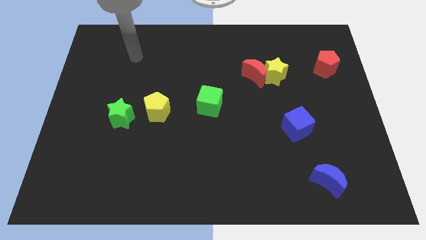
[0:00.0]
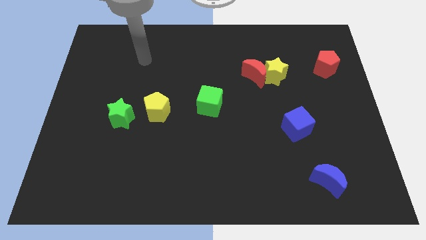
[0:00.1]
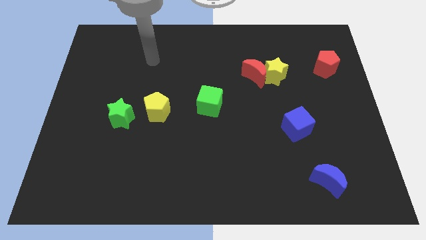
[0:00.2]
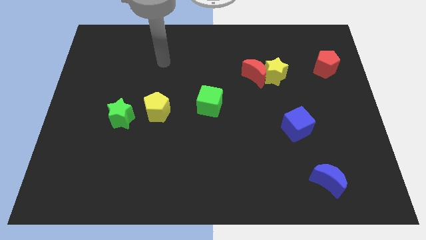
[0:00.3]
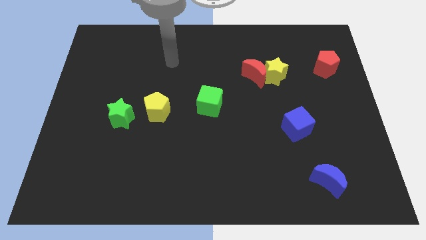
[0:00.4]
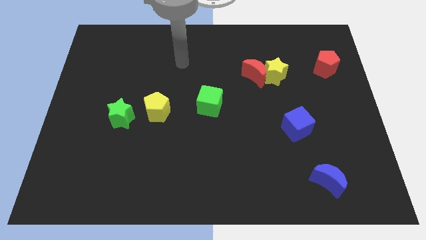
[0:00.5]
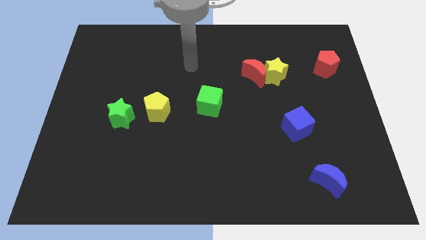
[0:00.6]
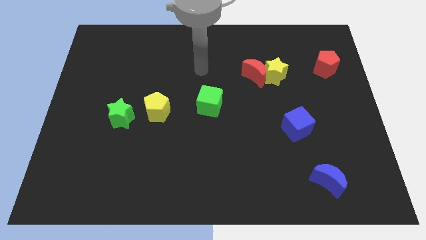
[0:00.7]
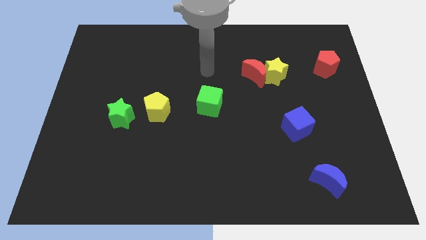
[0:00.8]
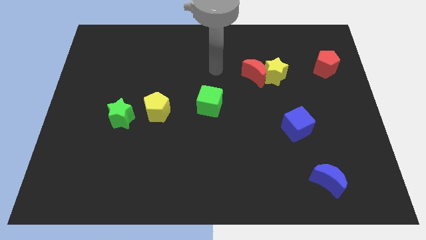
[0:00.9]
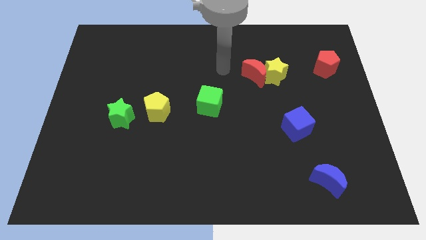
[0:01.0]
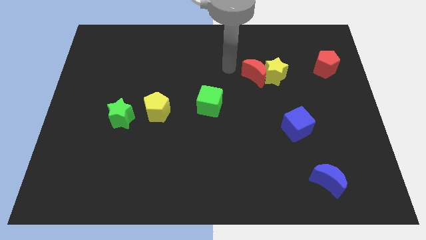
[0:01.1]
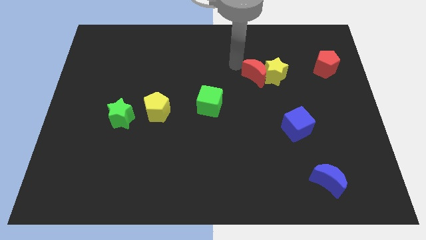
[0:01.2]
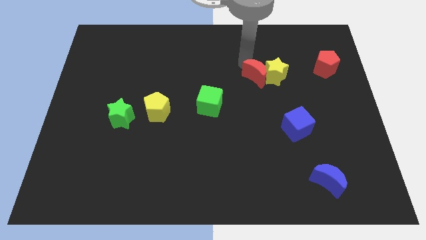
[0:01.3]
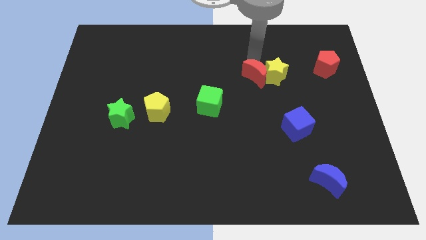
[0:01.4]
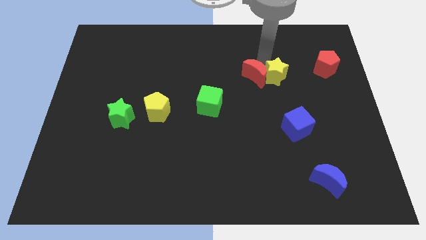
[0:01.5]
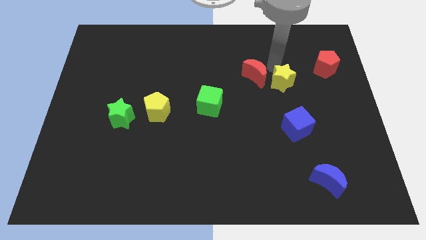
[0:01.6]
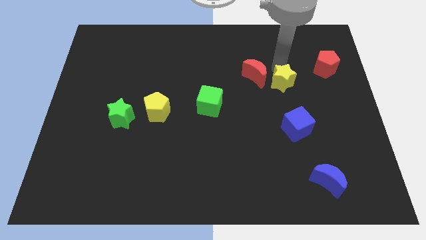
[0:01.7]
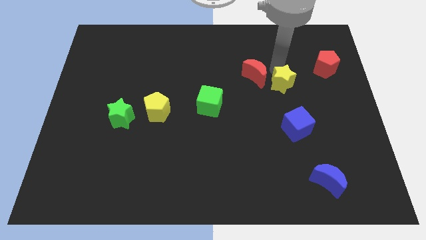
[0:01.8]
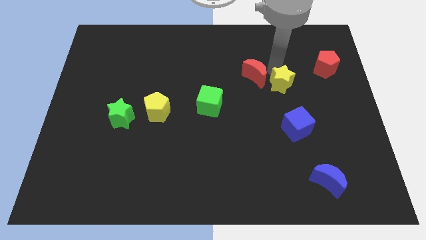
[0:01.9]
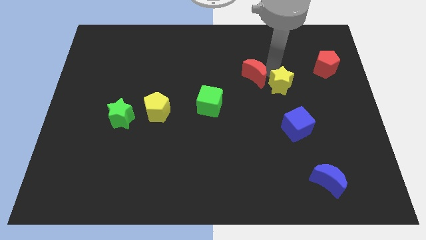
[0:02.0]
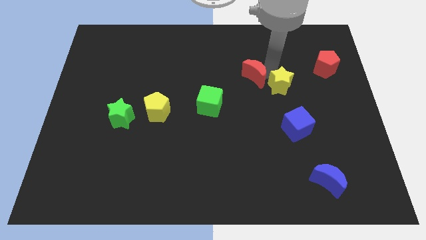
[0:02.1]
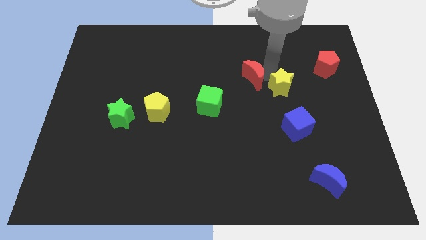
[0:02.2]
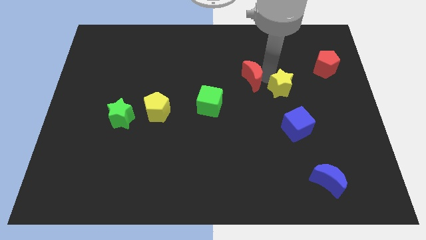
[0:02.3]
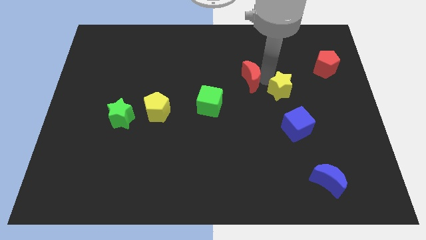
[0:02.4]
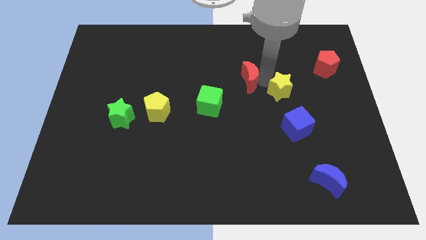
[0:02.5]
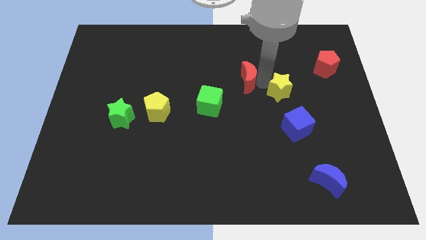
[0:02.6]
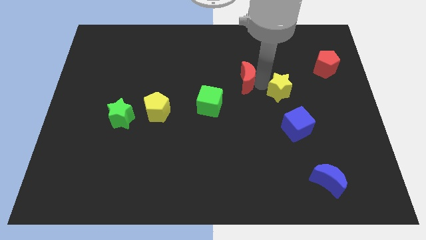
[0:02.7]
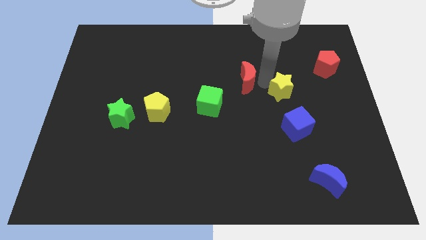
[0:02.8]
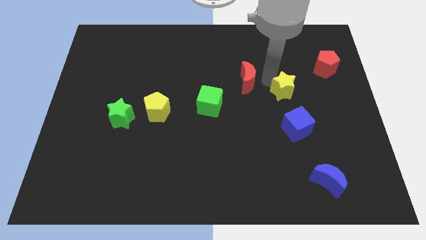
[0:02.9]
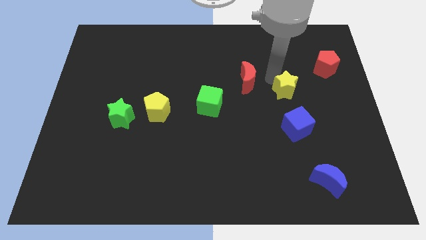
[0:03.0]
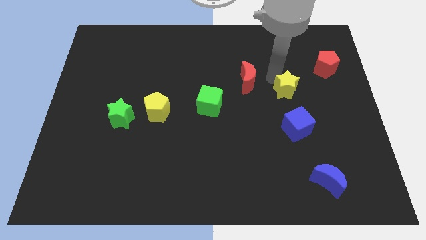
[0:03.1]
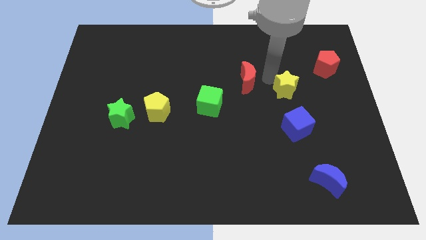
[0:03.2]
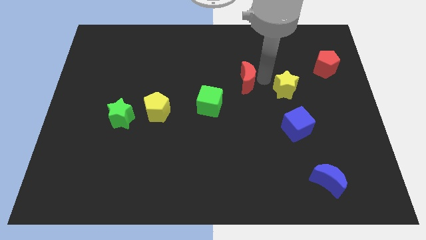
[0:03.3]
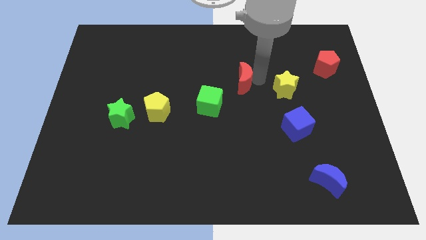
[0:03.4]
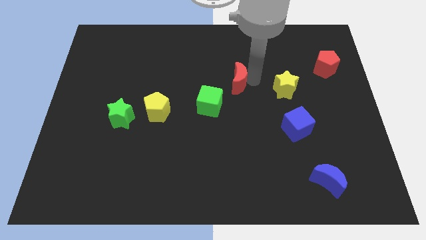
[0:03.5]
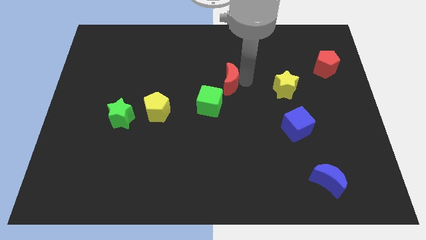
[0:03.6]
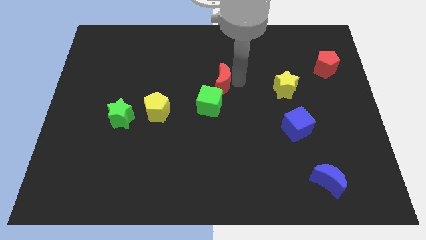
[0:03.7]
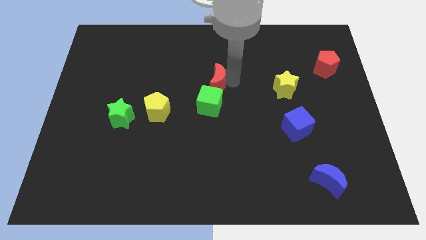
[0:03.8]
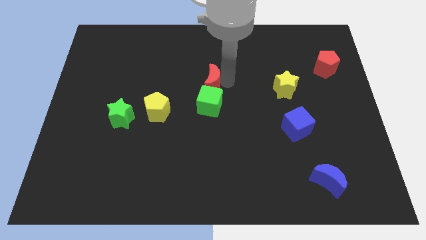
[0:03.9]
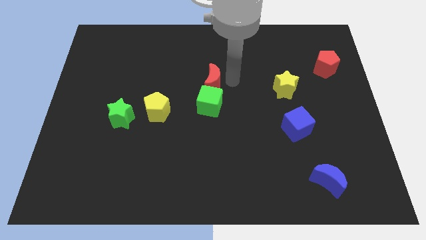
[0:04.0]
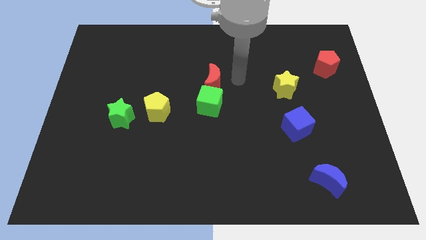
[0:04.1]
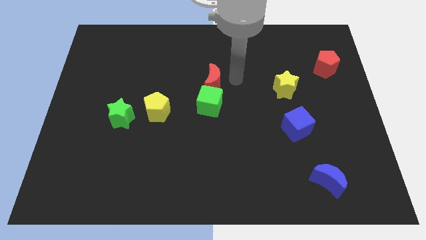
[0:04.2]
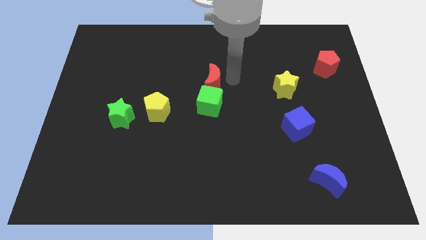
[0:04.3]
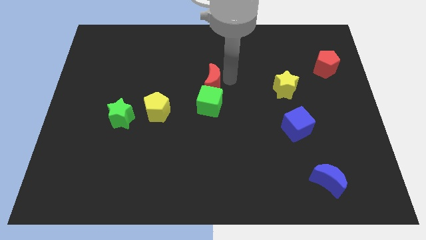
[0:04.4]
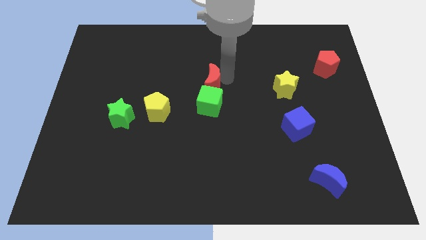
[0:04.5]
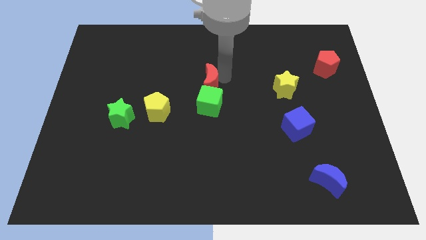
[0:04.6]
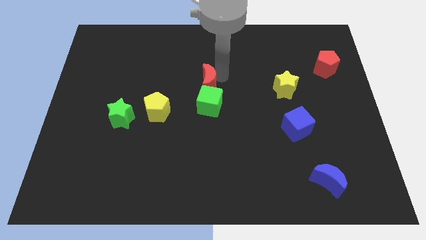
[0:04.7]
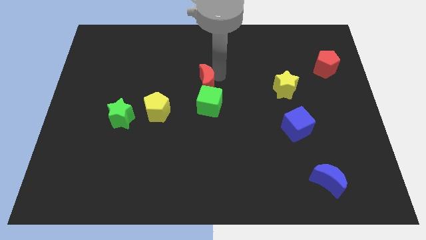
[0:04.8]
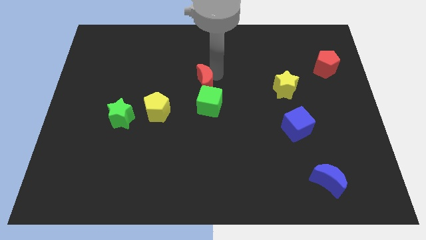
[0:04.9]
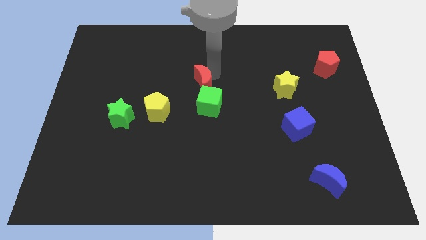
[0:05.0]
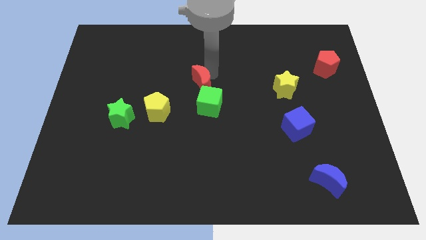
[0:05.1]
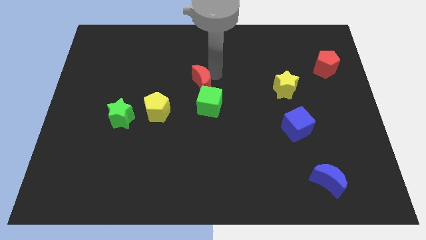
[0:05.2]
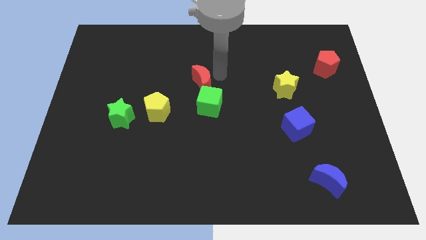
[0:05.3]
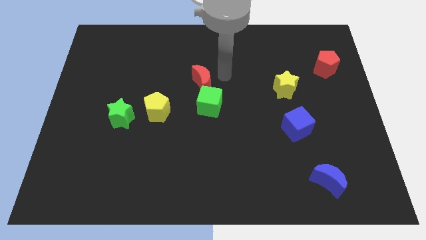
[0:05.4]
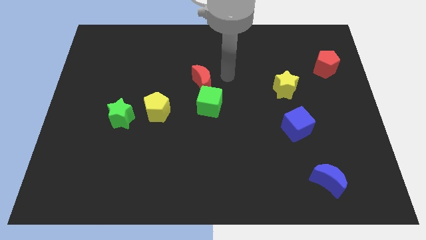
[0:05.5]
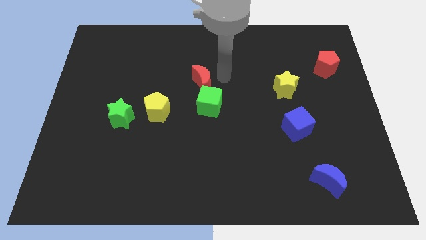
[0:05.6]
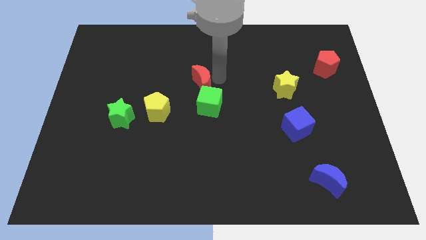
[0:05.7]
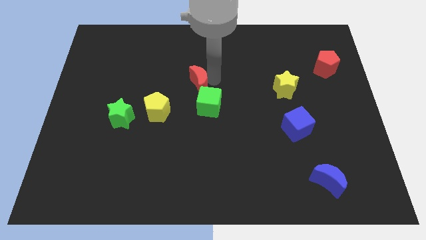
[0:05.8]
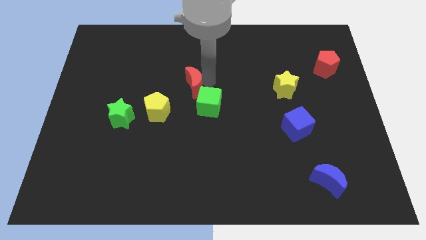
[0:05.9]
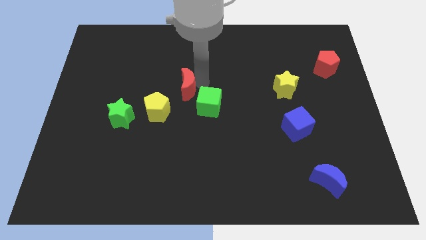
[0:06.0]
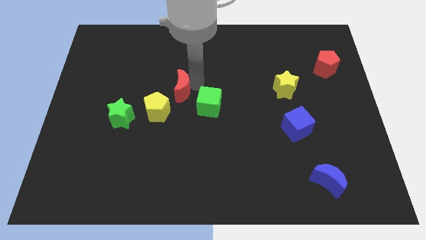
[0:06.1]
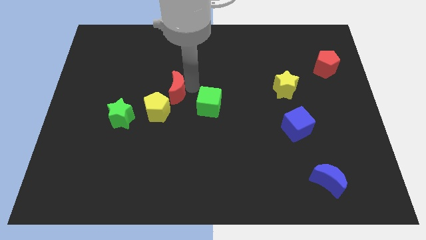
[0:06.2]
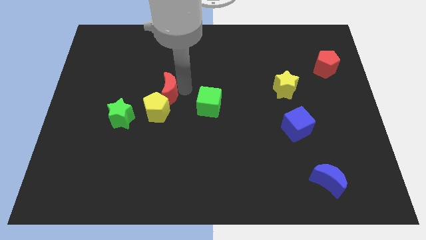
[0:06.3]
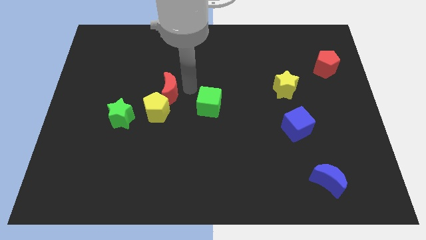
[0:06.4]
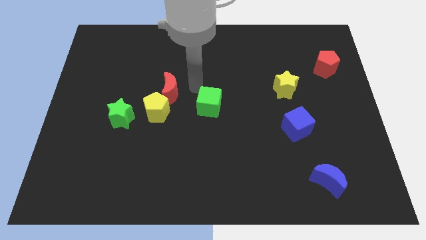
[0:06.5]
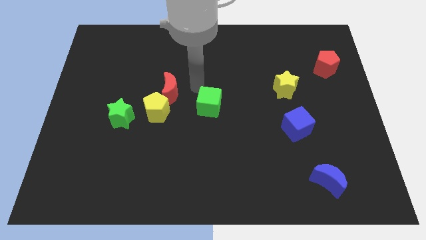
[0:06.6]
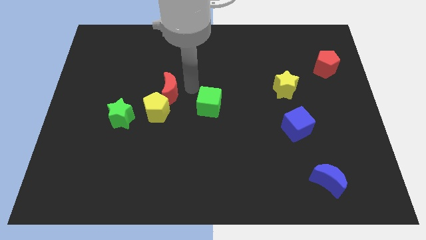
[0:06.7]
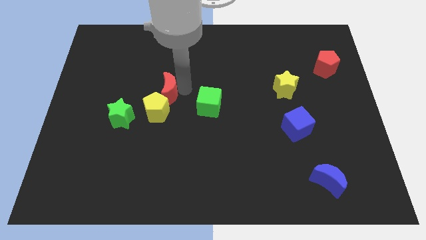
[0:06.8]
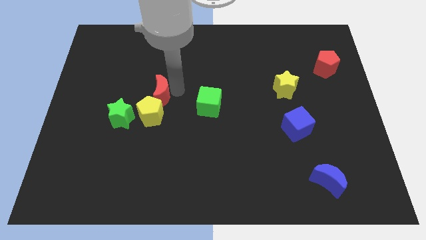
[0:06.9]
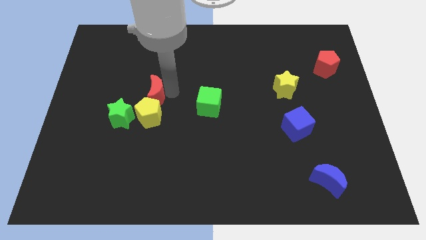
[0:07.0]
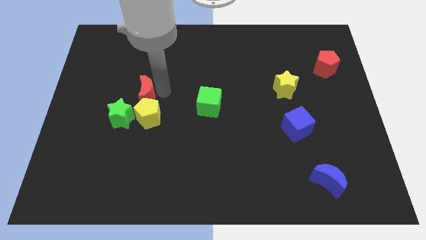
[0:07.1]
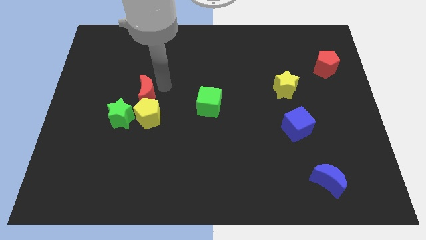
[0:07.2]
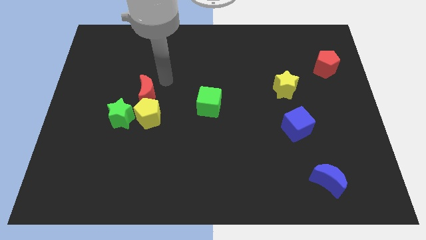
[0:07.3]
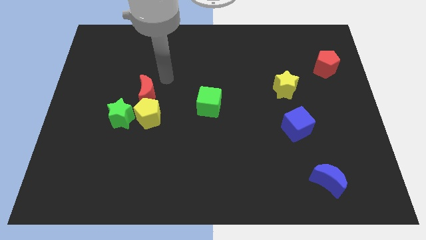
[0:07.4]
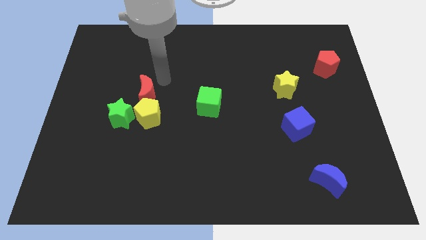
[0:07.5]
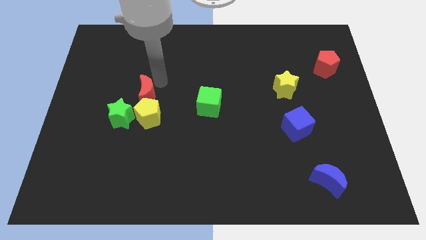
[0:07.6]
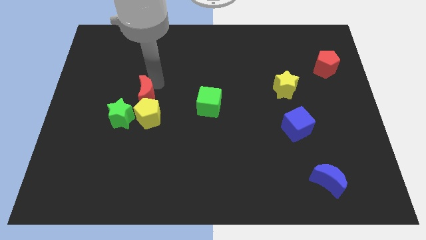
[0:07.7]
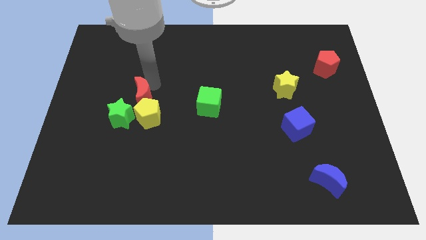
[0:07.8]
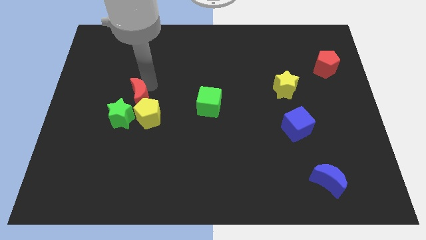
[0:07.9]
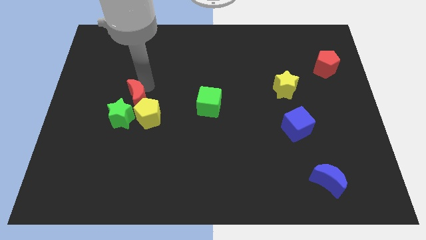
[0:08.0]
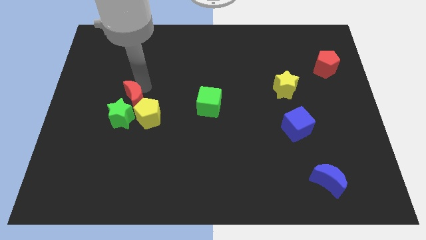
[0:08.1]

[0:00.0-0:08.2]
slide the red moon towards the green star

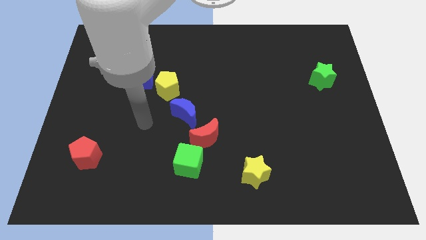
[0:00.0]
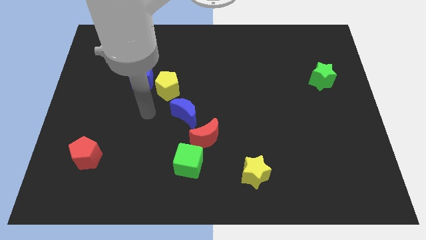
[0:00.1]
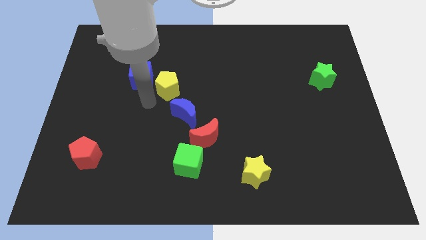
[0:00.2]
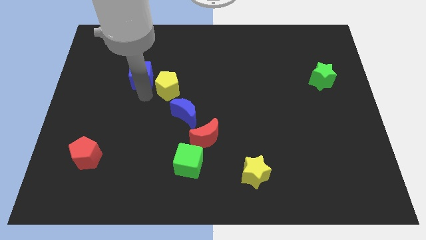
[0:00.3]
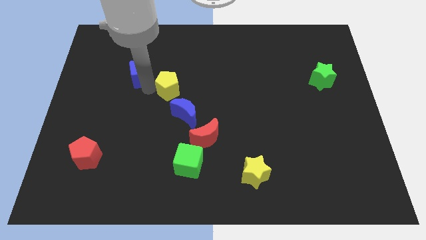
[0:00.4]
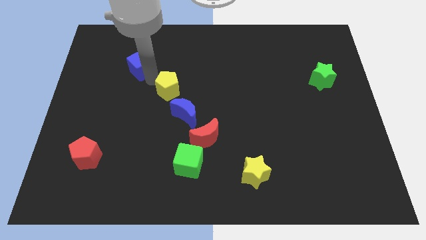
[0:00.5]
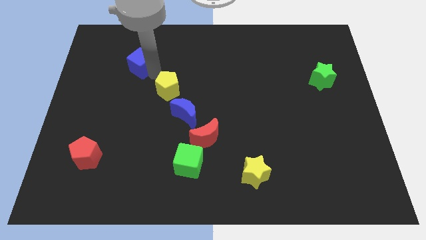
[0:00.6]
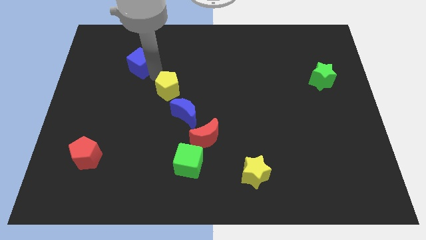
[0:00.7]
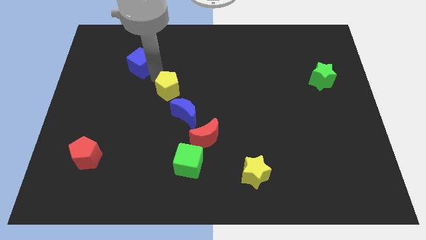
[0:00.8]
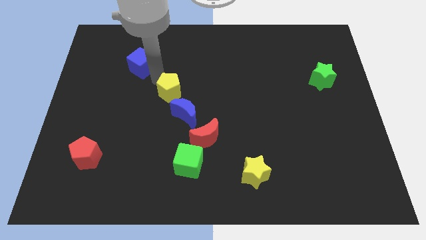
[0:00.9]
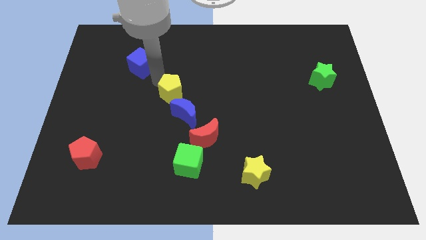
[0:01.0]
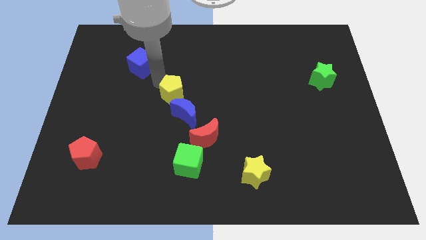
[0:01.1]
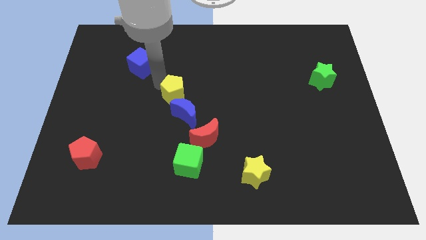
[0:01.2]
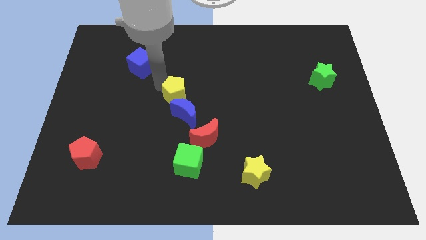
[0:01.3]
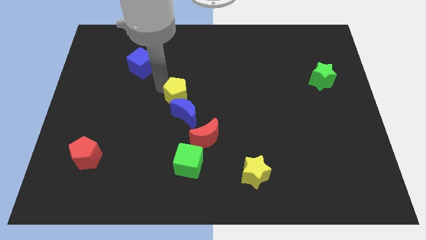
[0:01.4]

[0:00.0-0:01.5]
slide the yellow pentagon to the blue moon
